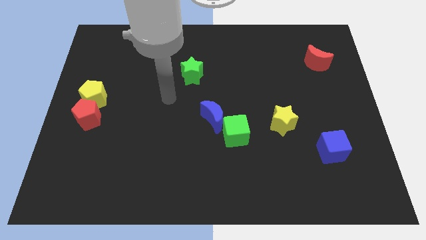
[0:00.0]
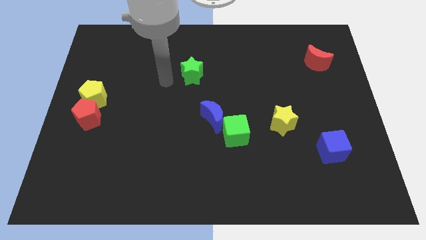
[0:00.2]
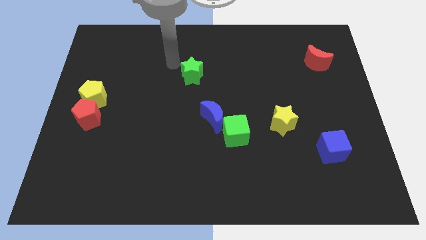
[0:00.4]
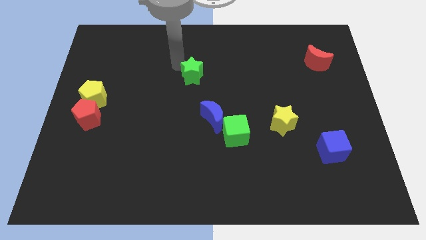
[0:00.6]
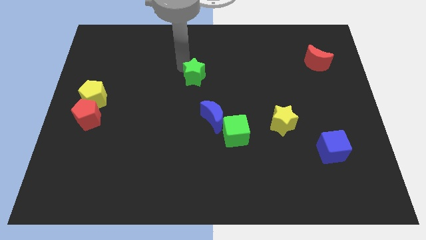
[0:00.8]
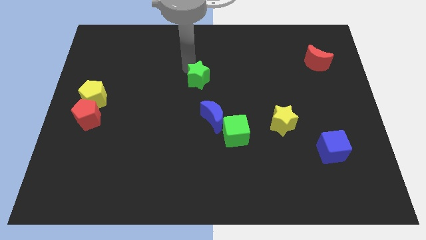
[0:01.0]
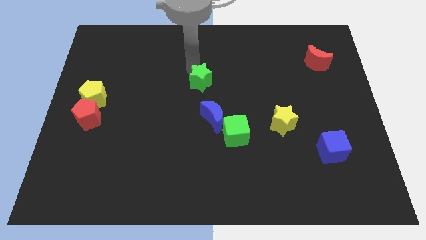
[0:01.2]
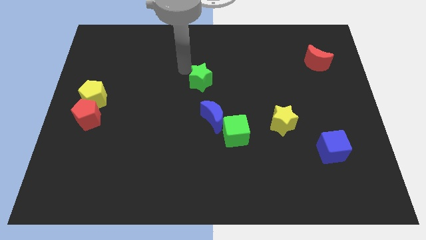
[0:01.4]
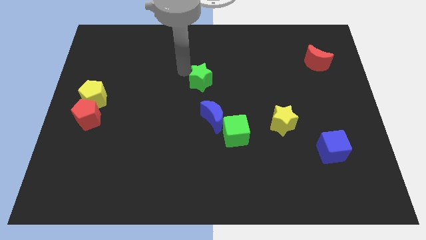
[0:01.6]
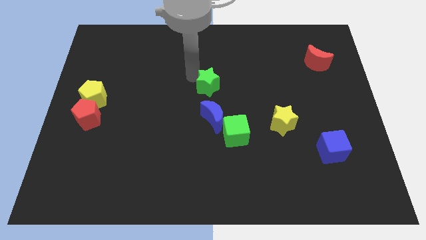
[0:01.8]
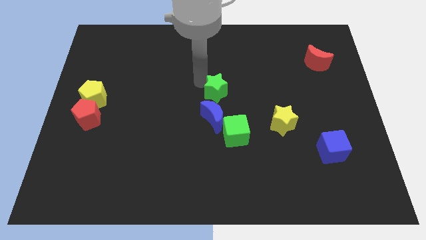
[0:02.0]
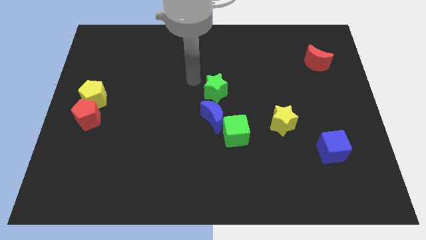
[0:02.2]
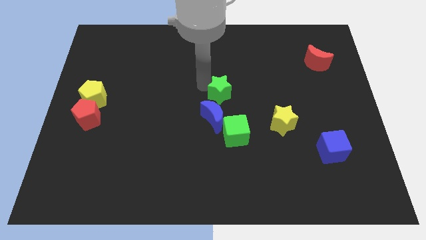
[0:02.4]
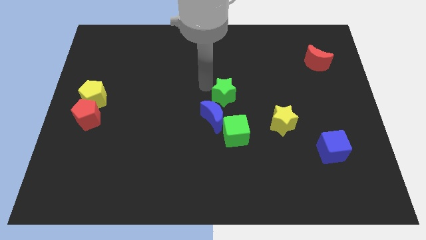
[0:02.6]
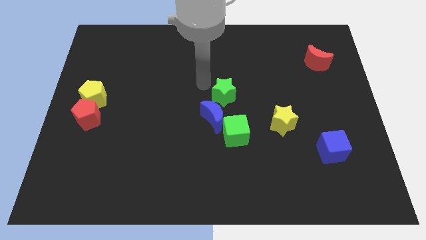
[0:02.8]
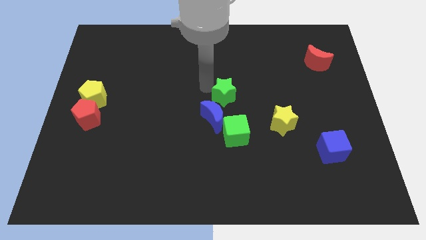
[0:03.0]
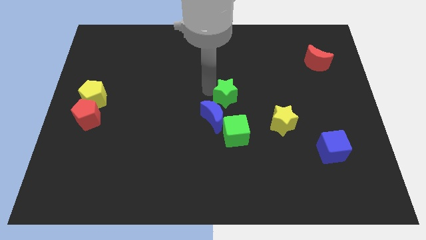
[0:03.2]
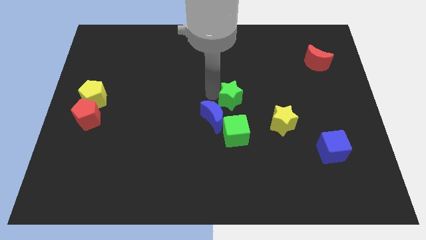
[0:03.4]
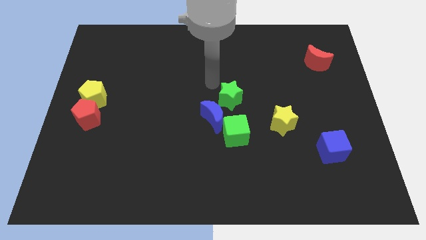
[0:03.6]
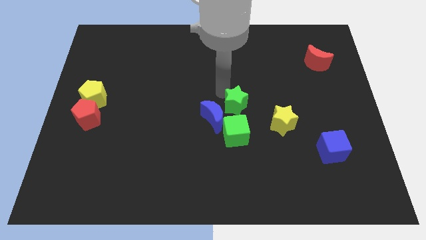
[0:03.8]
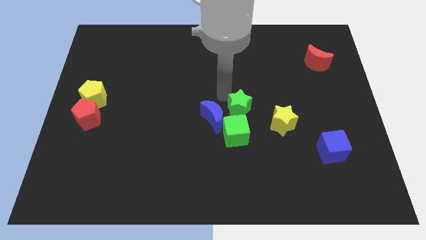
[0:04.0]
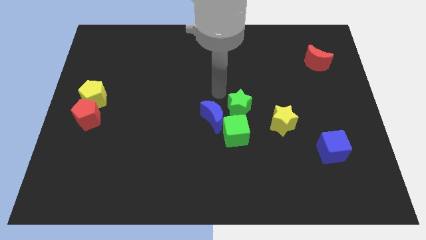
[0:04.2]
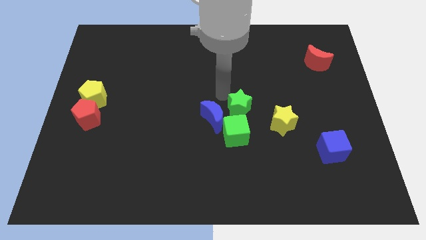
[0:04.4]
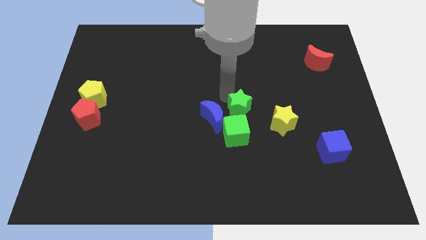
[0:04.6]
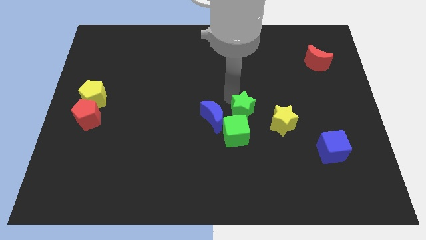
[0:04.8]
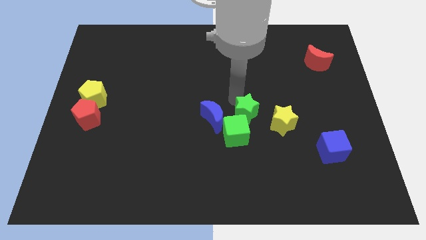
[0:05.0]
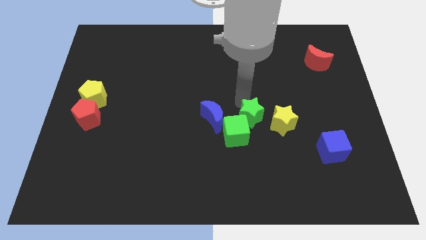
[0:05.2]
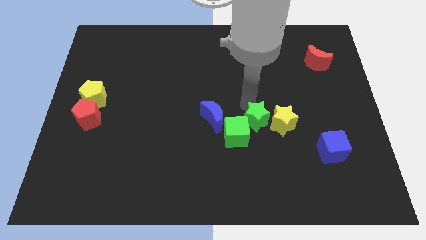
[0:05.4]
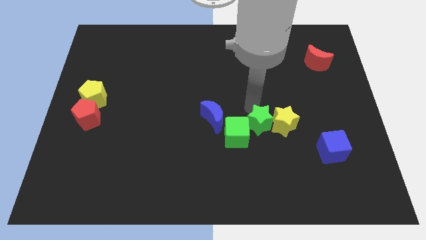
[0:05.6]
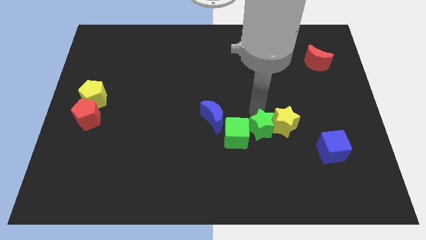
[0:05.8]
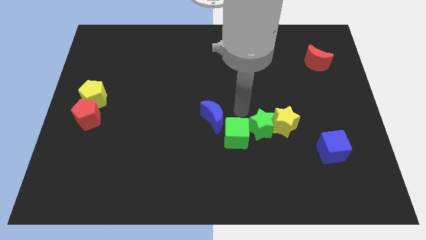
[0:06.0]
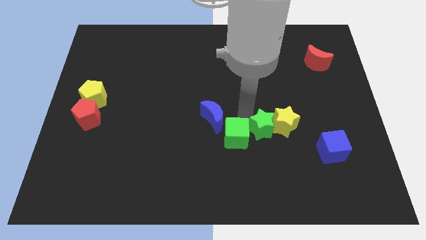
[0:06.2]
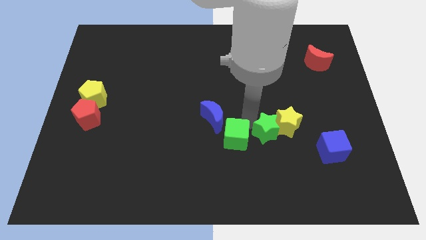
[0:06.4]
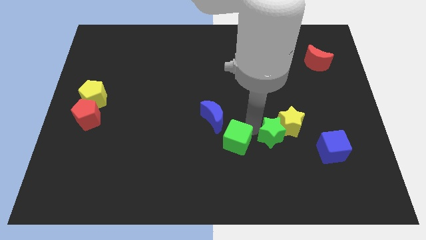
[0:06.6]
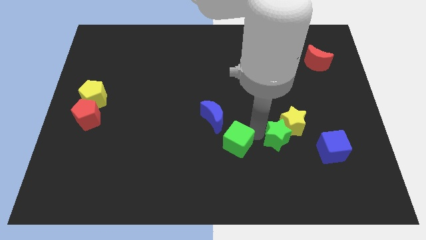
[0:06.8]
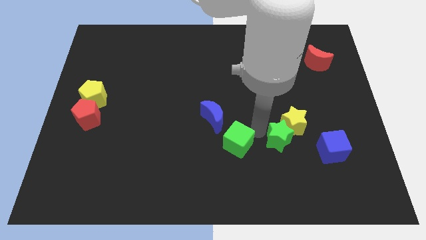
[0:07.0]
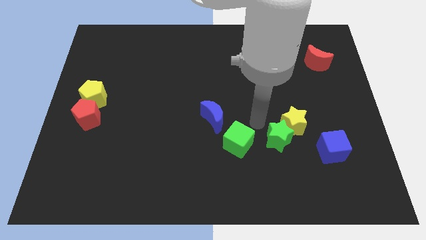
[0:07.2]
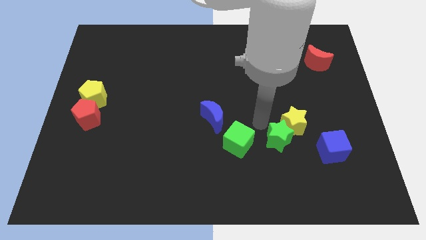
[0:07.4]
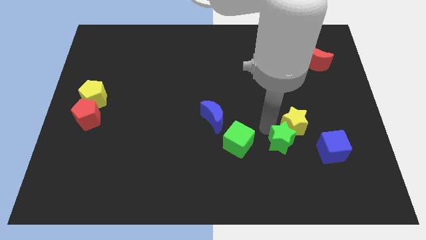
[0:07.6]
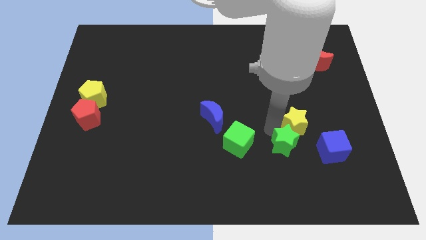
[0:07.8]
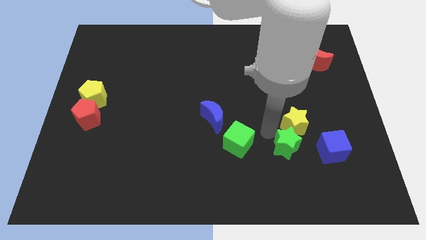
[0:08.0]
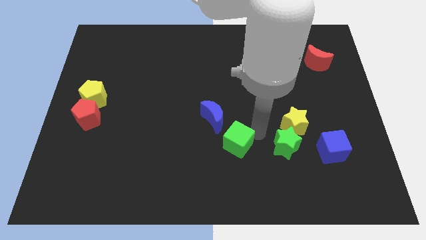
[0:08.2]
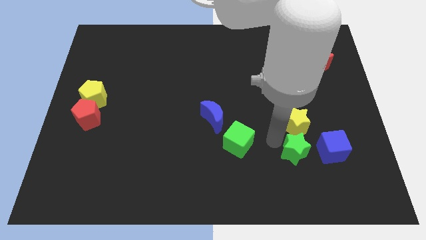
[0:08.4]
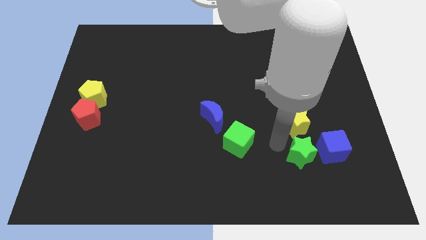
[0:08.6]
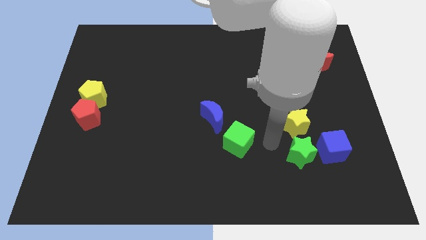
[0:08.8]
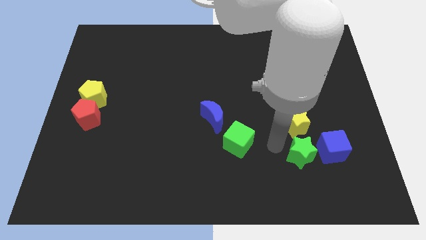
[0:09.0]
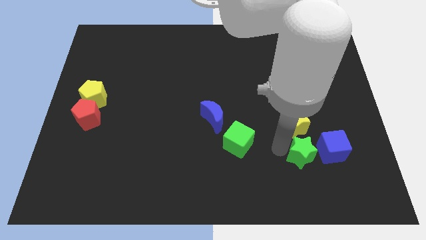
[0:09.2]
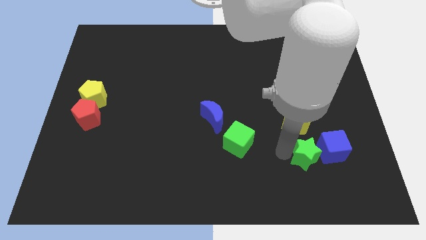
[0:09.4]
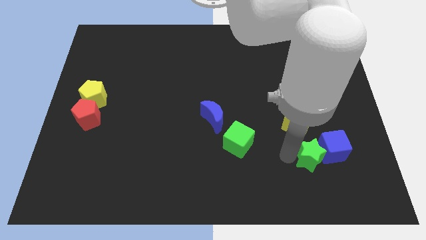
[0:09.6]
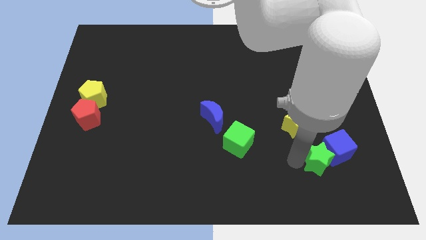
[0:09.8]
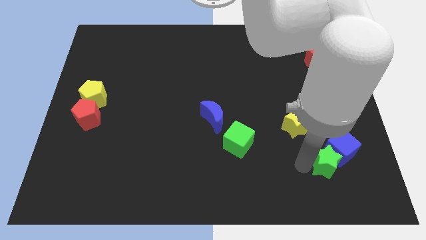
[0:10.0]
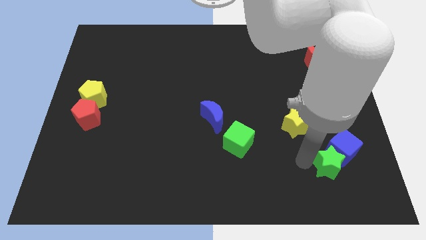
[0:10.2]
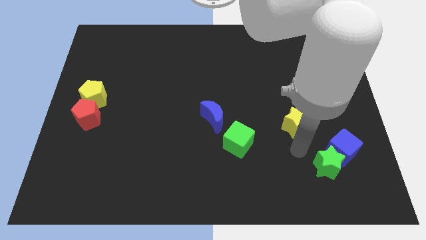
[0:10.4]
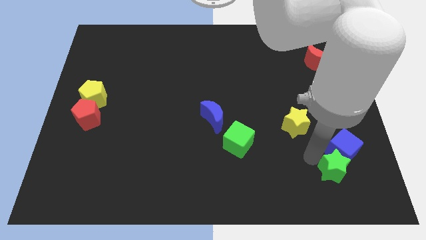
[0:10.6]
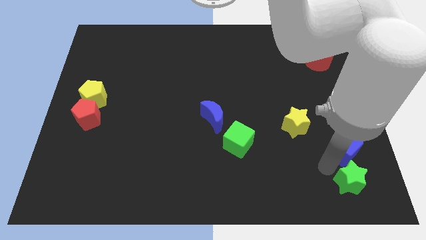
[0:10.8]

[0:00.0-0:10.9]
put the green star to the lower right corner

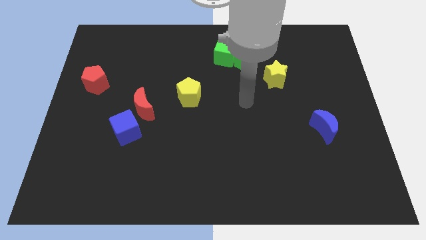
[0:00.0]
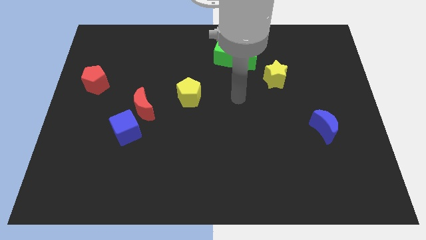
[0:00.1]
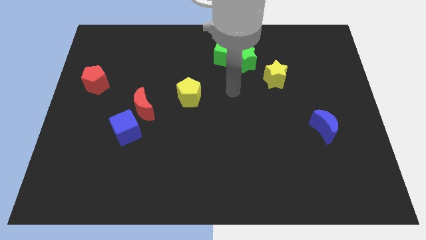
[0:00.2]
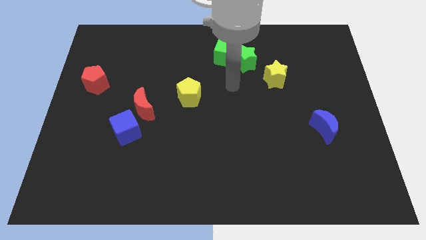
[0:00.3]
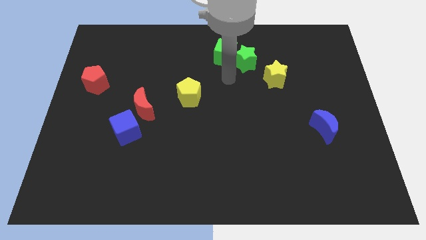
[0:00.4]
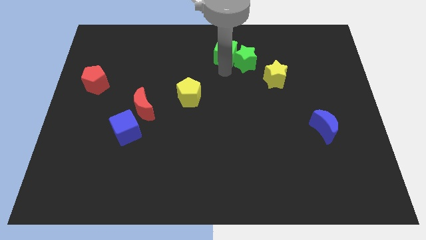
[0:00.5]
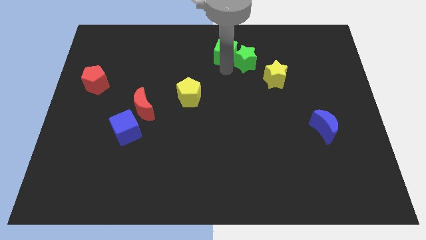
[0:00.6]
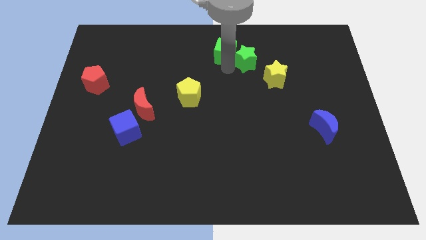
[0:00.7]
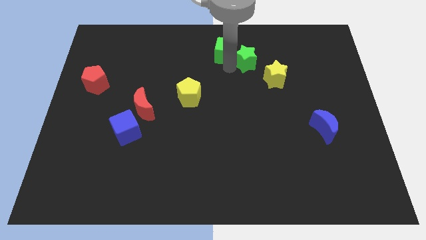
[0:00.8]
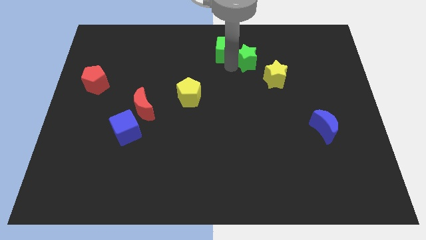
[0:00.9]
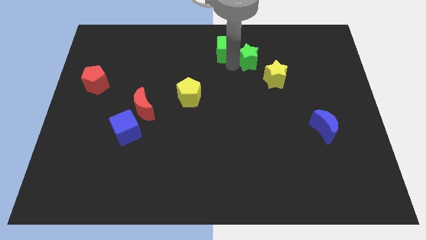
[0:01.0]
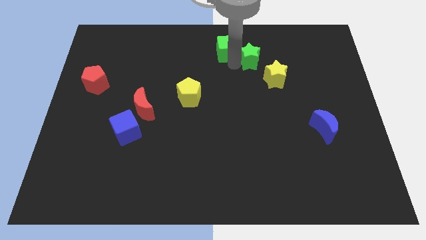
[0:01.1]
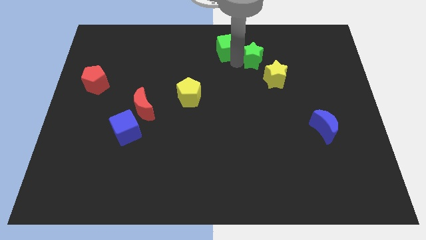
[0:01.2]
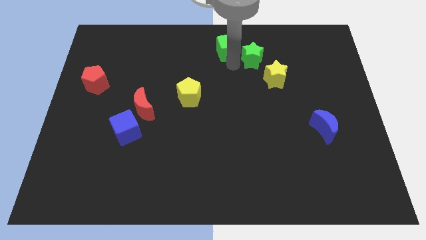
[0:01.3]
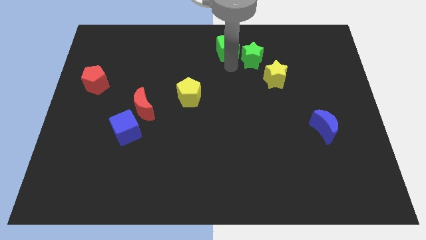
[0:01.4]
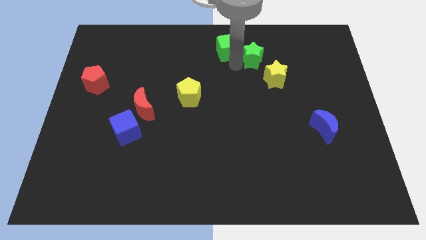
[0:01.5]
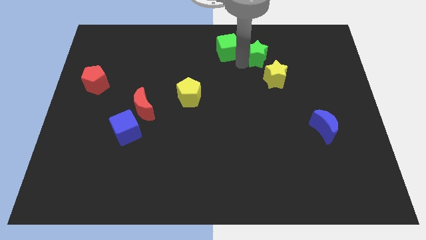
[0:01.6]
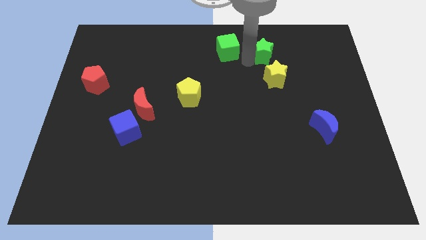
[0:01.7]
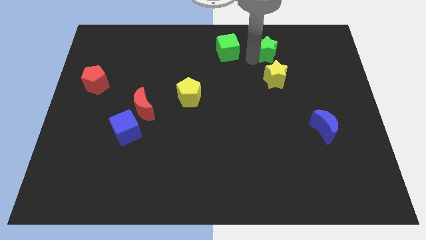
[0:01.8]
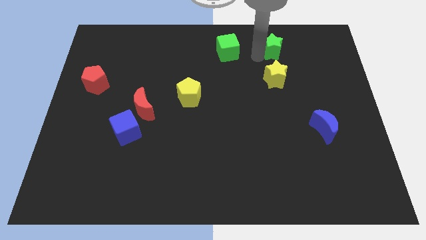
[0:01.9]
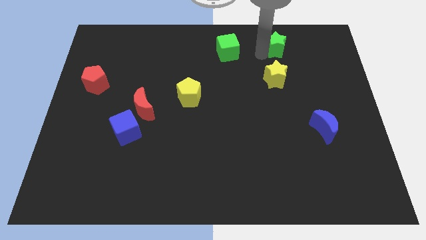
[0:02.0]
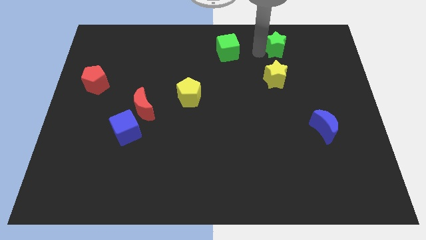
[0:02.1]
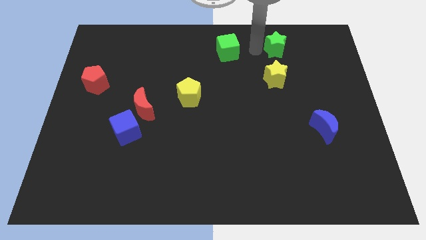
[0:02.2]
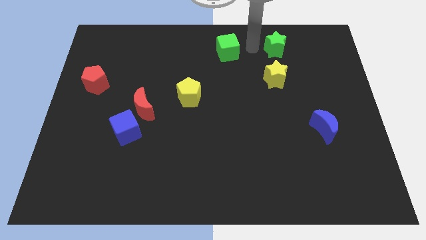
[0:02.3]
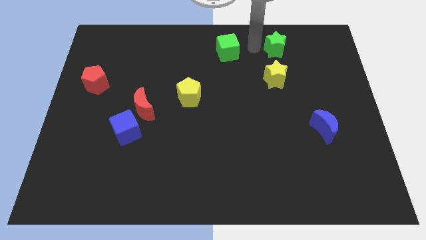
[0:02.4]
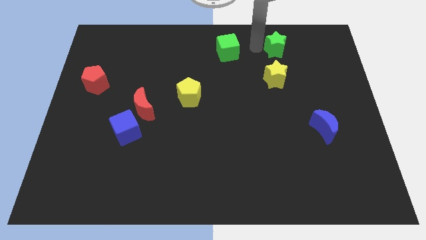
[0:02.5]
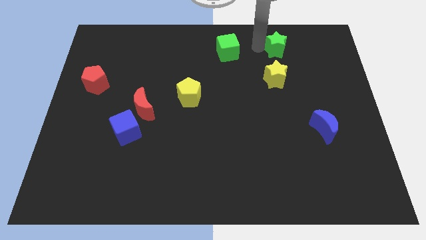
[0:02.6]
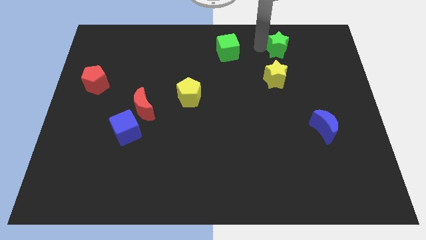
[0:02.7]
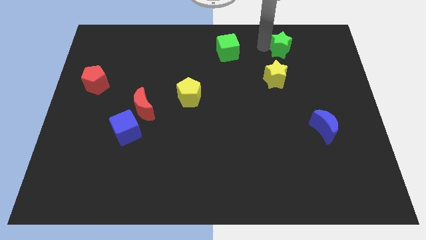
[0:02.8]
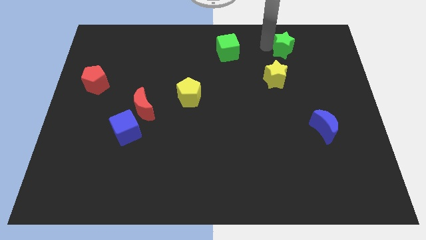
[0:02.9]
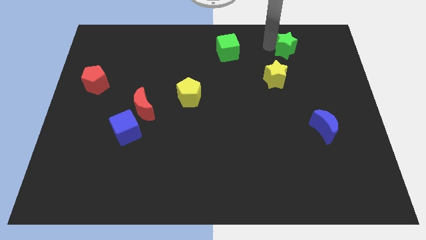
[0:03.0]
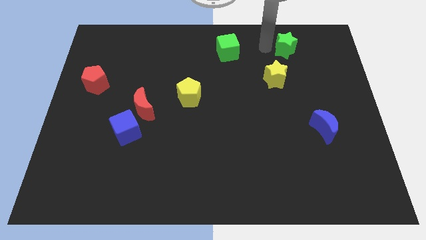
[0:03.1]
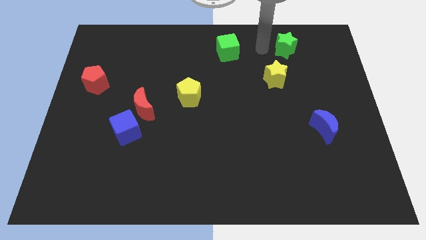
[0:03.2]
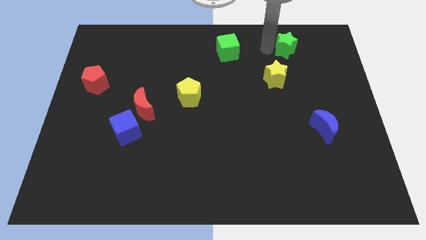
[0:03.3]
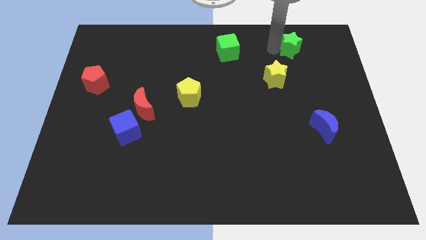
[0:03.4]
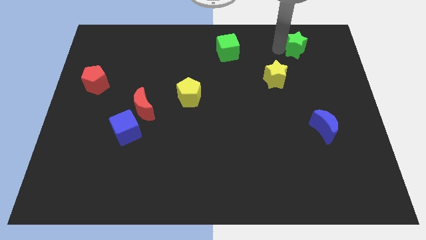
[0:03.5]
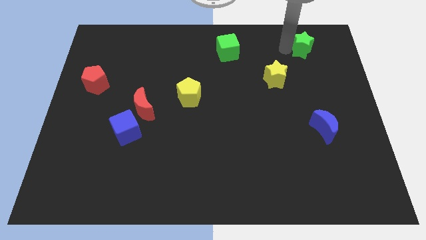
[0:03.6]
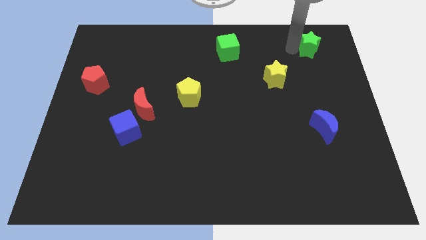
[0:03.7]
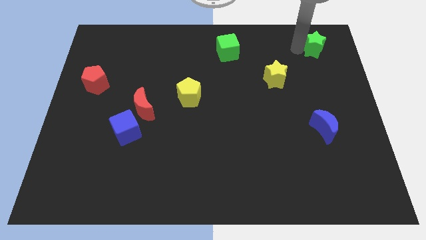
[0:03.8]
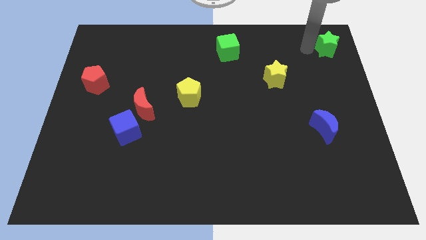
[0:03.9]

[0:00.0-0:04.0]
push the green star to the top right corner
